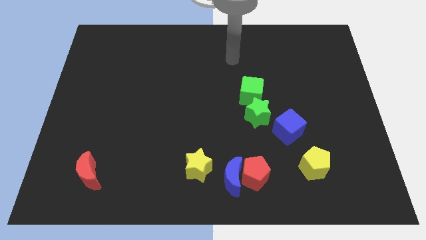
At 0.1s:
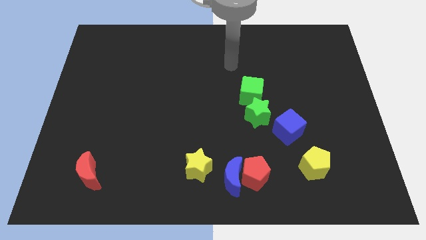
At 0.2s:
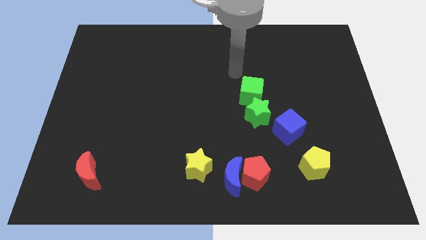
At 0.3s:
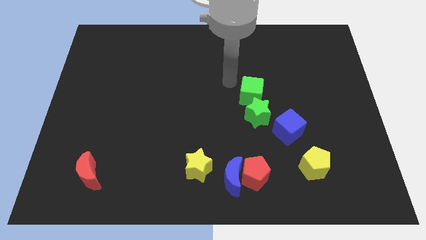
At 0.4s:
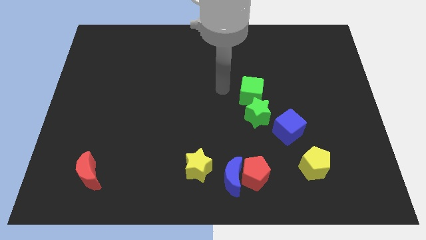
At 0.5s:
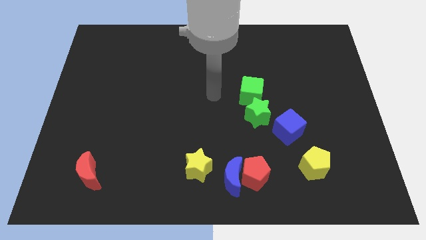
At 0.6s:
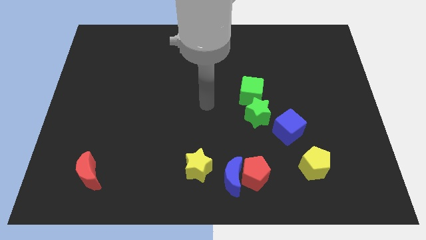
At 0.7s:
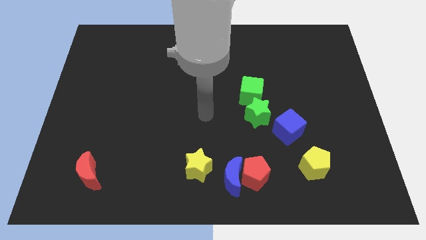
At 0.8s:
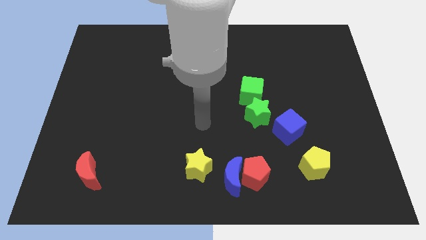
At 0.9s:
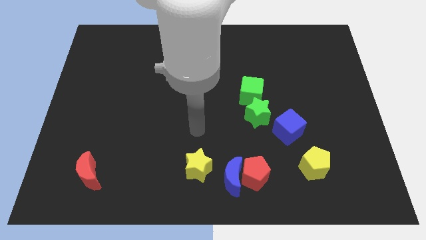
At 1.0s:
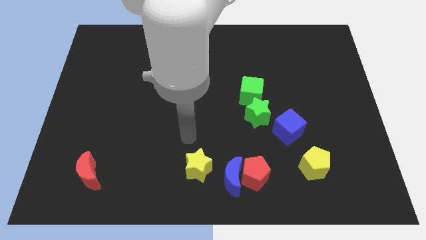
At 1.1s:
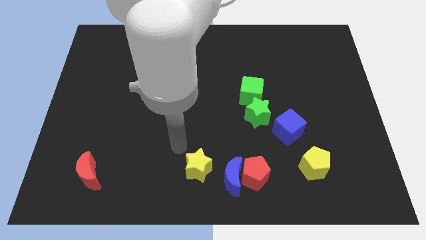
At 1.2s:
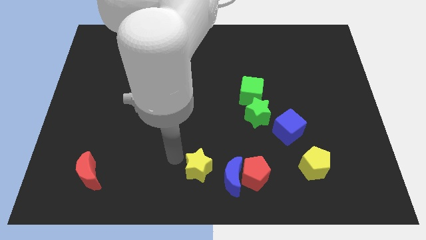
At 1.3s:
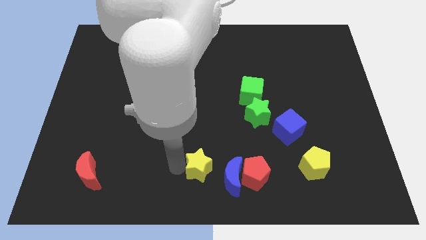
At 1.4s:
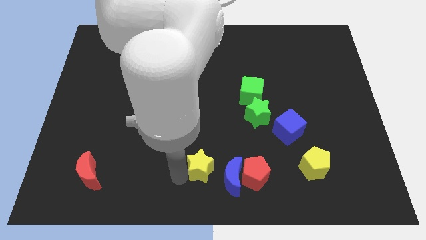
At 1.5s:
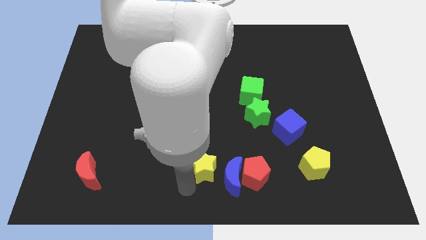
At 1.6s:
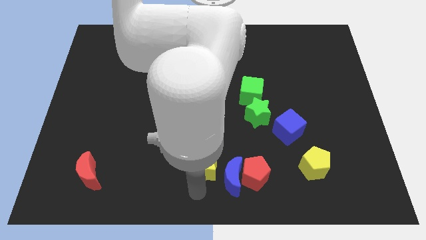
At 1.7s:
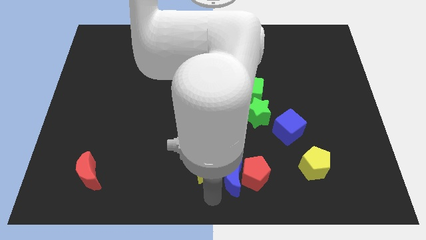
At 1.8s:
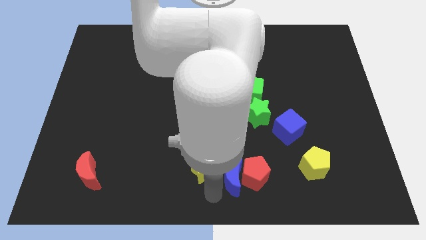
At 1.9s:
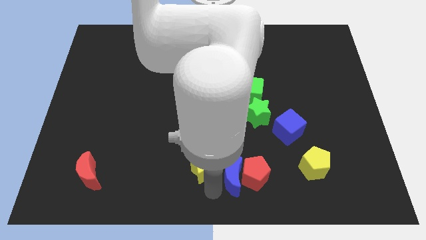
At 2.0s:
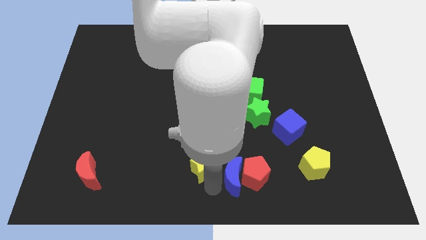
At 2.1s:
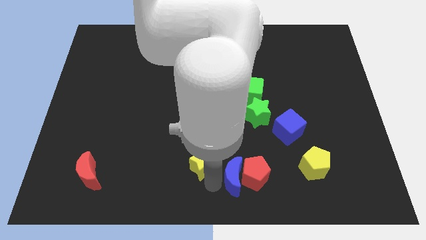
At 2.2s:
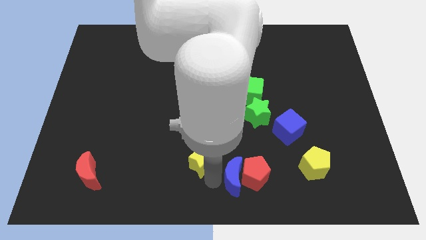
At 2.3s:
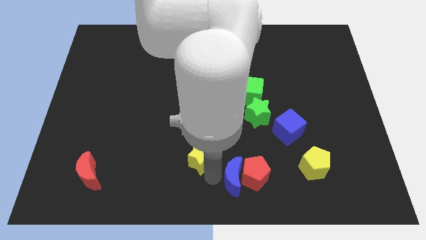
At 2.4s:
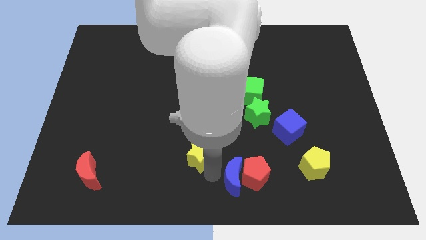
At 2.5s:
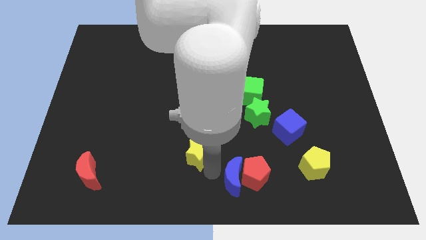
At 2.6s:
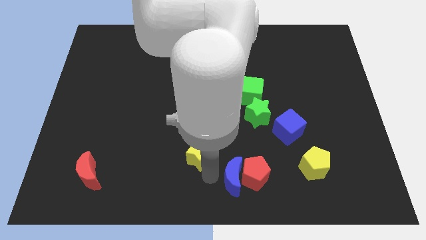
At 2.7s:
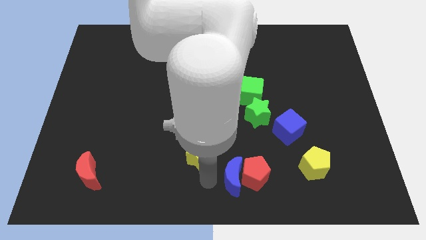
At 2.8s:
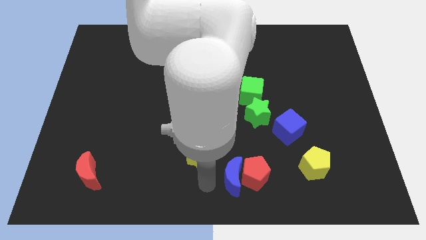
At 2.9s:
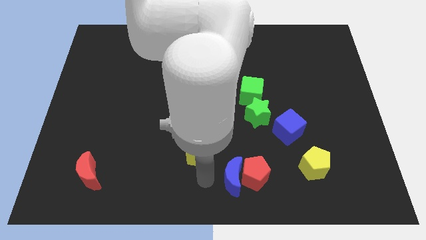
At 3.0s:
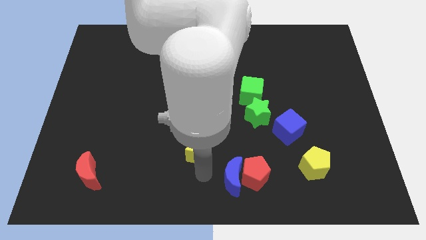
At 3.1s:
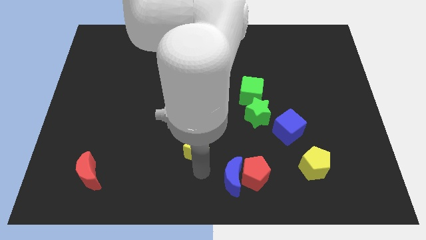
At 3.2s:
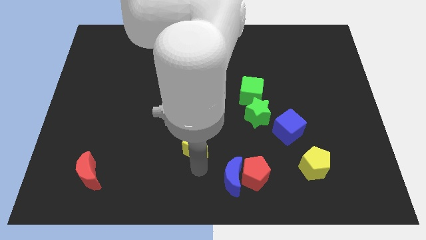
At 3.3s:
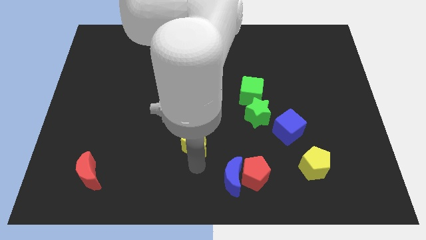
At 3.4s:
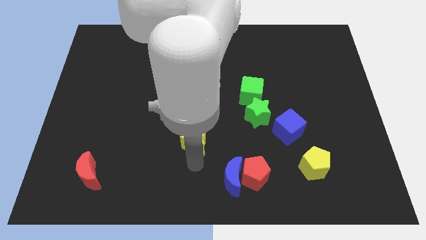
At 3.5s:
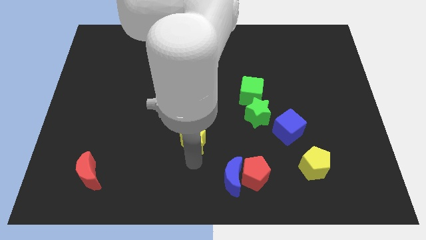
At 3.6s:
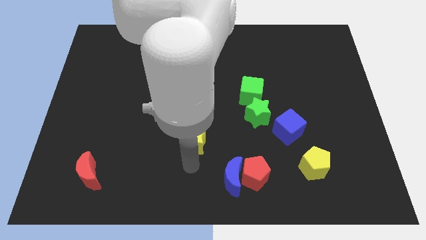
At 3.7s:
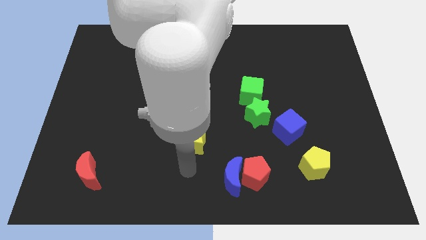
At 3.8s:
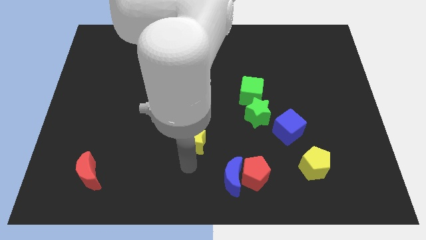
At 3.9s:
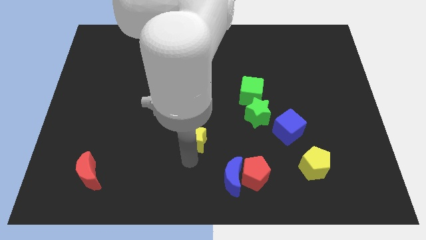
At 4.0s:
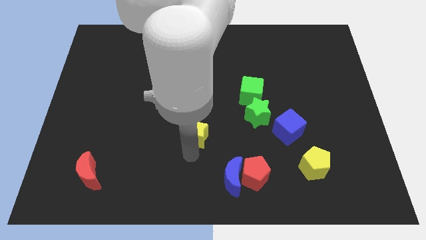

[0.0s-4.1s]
slide the yellow star upwards a little

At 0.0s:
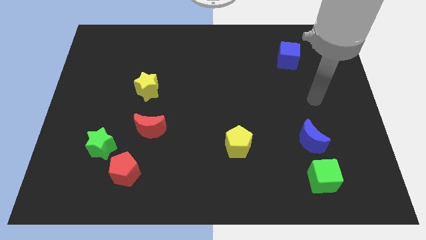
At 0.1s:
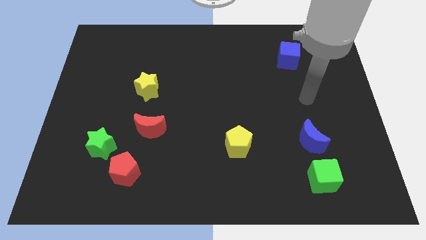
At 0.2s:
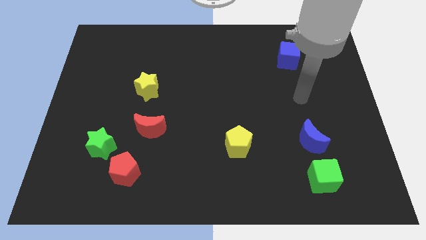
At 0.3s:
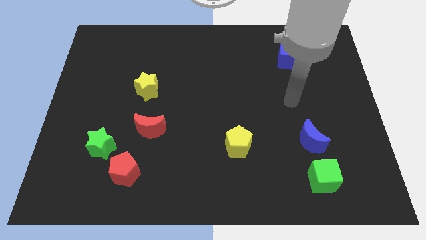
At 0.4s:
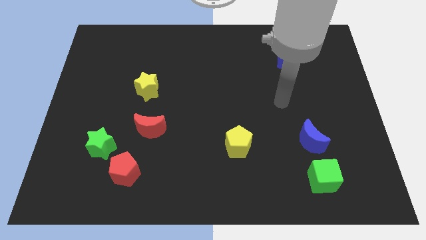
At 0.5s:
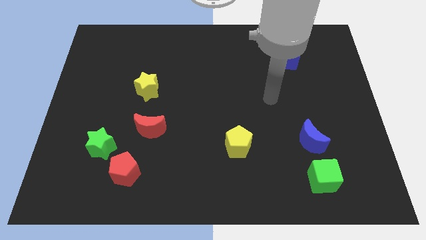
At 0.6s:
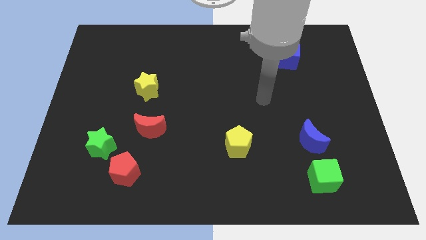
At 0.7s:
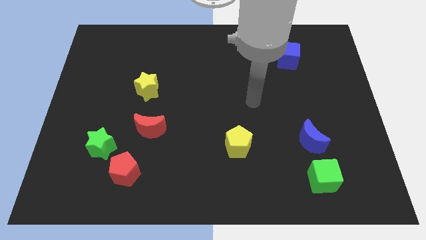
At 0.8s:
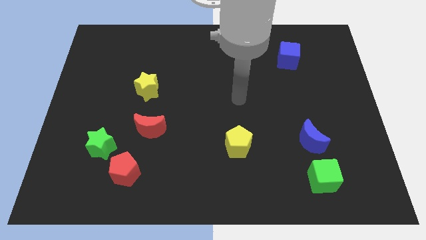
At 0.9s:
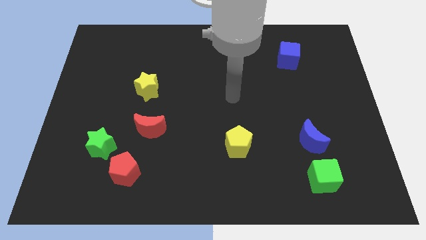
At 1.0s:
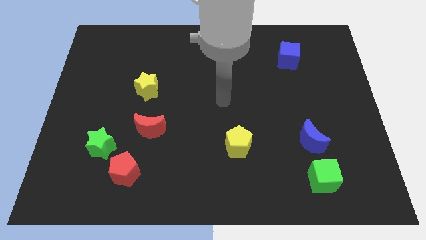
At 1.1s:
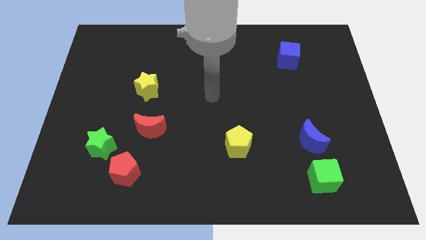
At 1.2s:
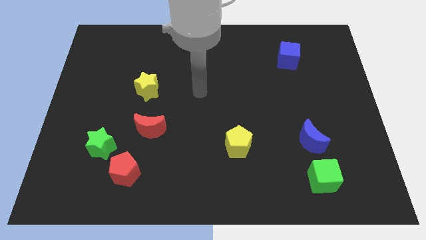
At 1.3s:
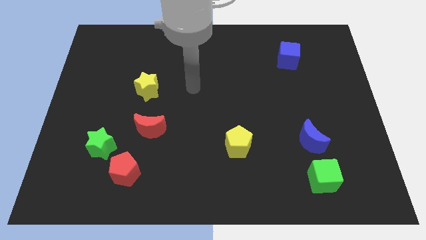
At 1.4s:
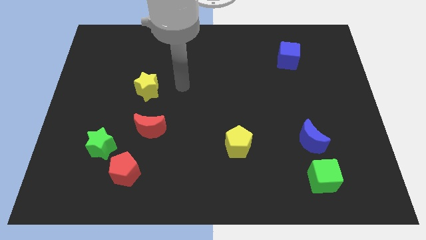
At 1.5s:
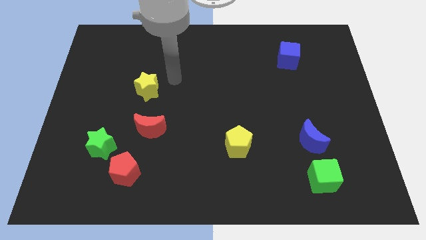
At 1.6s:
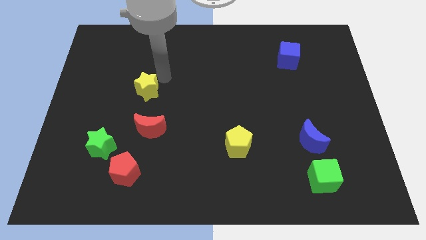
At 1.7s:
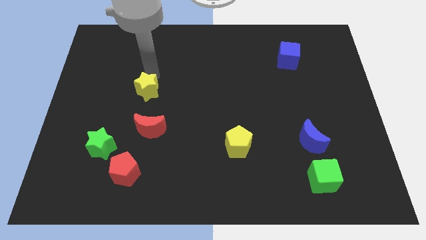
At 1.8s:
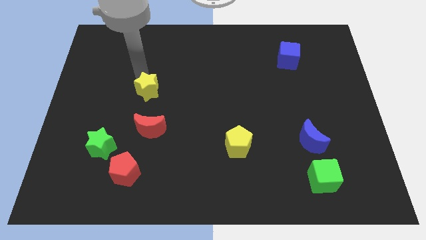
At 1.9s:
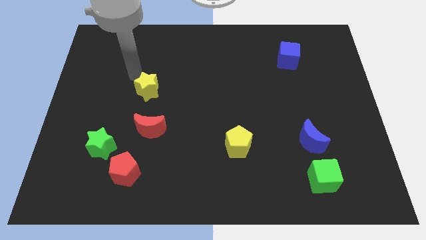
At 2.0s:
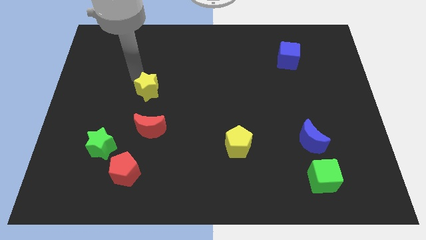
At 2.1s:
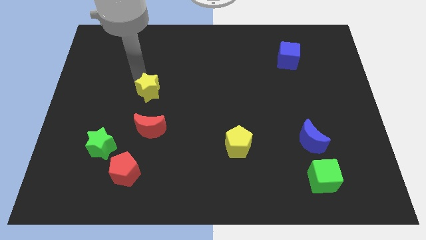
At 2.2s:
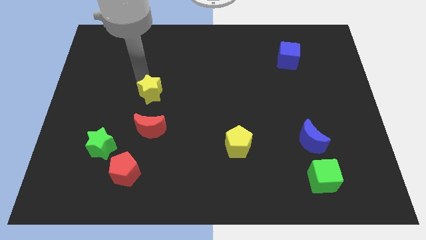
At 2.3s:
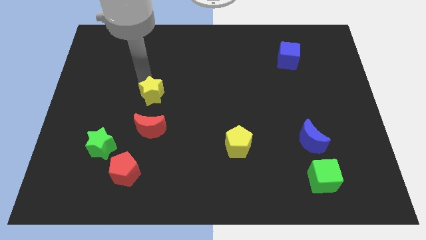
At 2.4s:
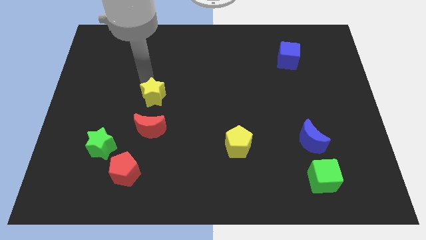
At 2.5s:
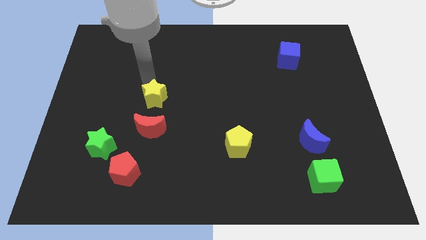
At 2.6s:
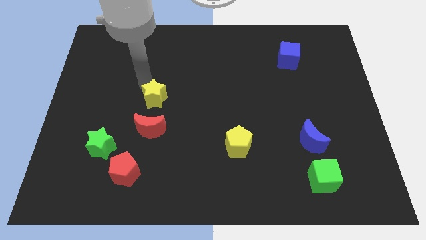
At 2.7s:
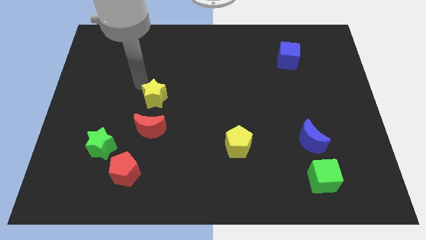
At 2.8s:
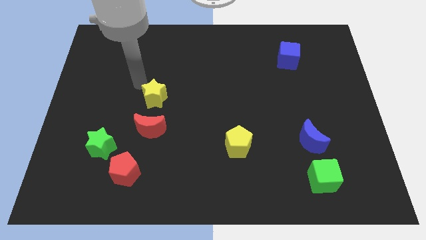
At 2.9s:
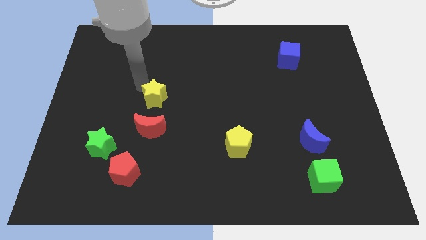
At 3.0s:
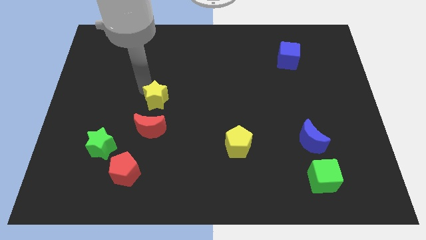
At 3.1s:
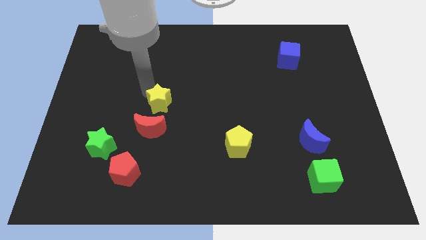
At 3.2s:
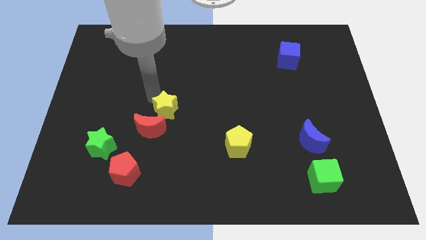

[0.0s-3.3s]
push the yellow star a bit down and right diagonally

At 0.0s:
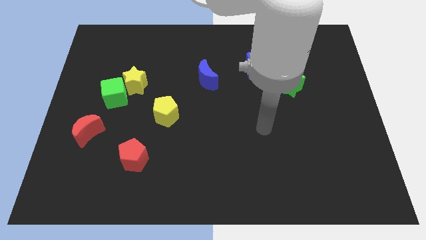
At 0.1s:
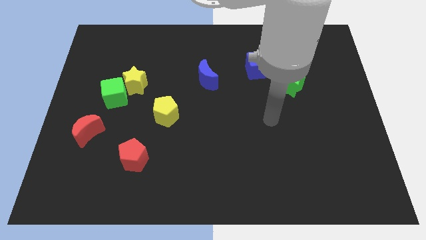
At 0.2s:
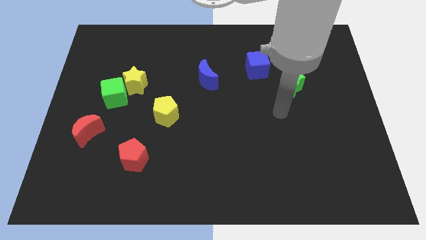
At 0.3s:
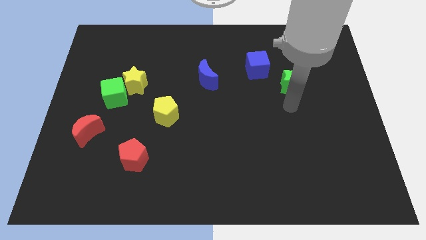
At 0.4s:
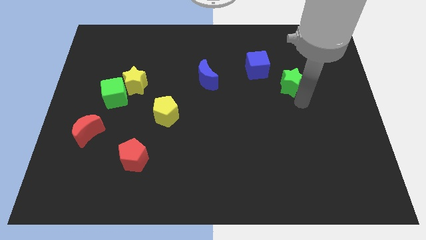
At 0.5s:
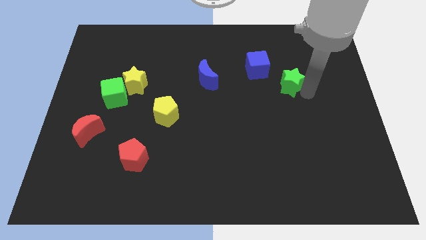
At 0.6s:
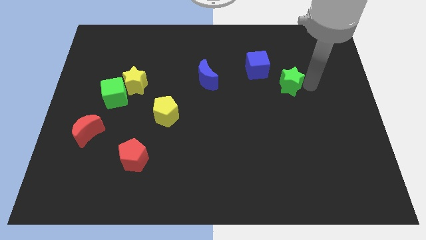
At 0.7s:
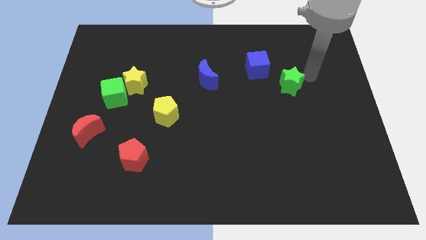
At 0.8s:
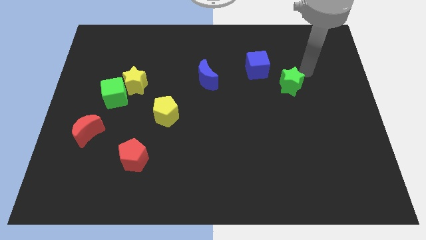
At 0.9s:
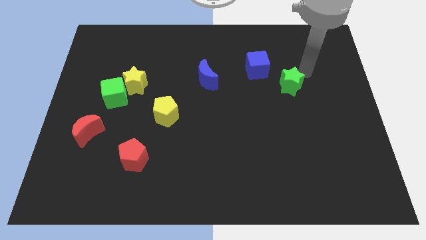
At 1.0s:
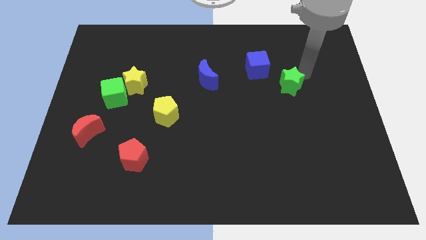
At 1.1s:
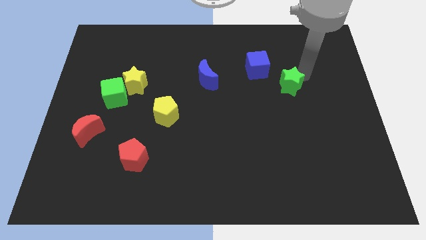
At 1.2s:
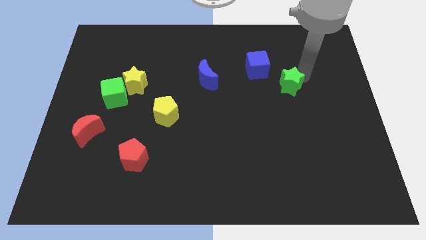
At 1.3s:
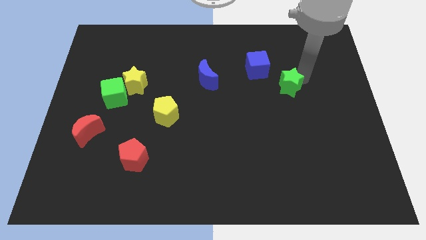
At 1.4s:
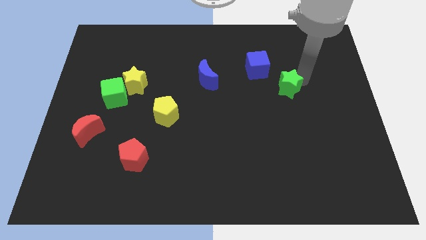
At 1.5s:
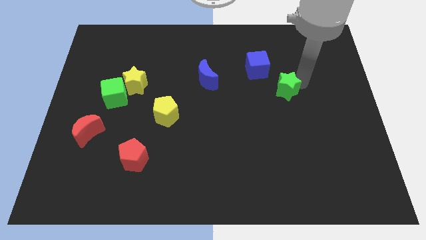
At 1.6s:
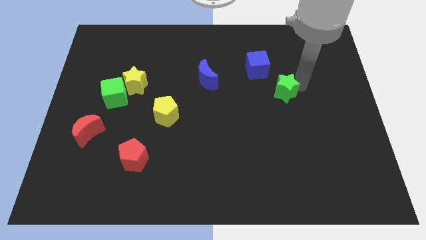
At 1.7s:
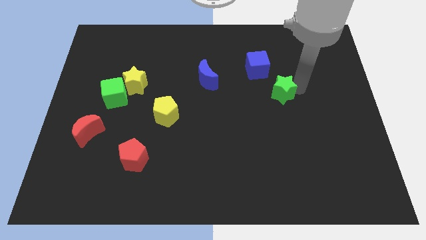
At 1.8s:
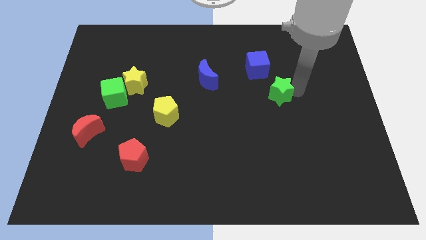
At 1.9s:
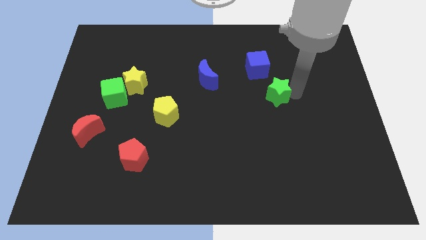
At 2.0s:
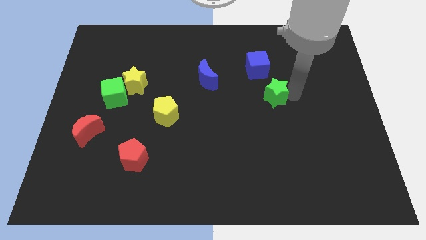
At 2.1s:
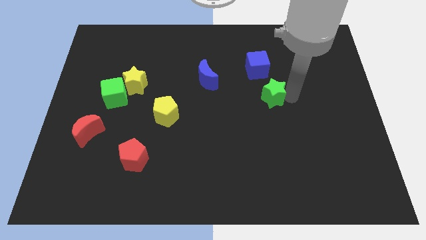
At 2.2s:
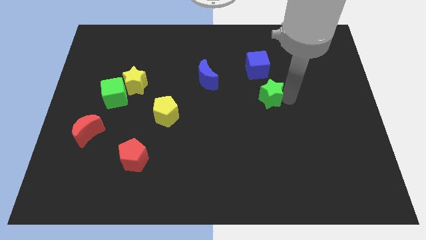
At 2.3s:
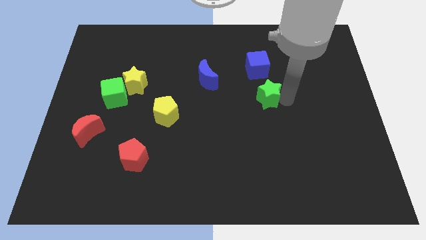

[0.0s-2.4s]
move the green star down and then left a little bit
